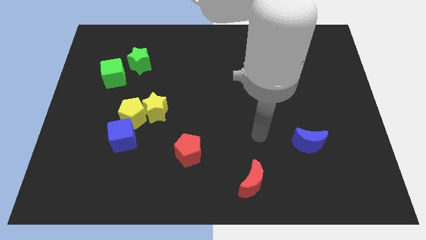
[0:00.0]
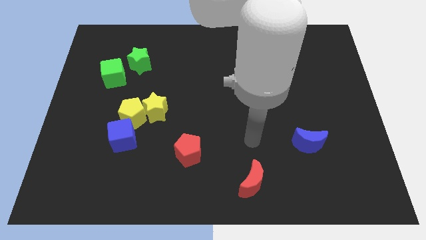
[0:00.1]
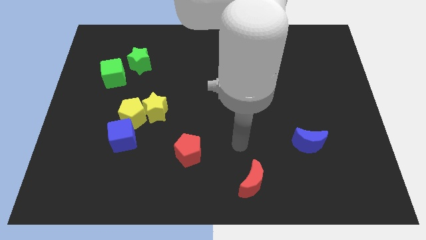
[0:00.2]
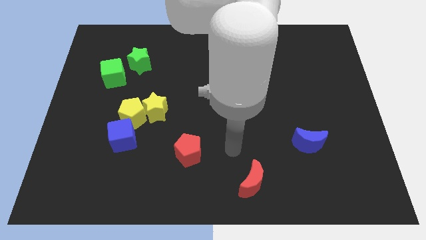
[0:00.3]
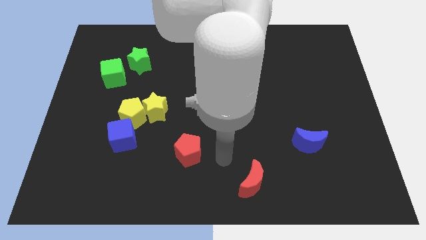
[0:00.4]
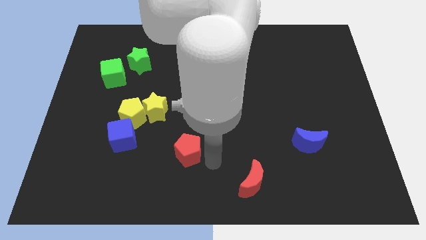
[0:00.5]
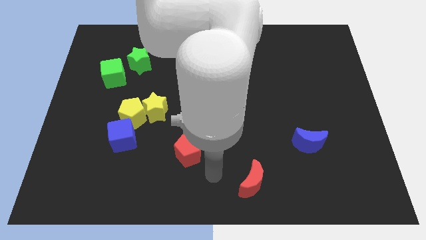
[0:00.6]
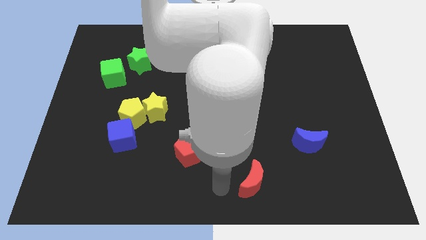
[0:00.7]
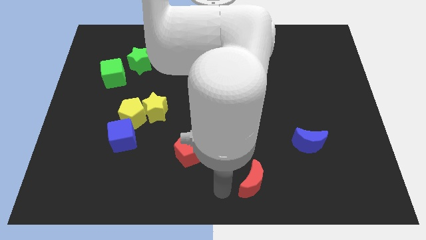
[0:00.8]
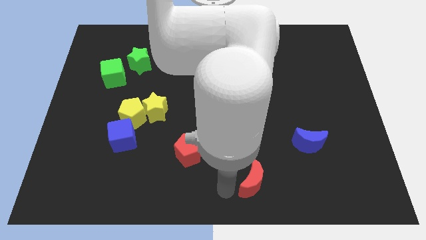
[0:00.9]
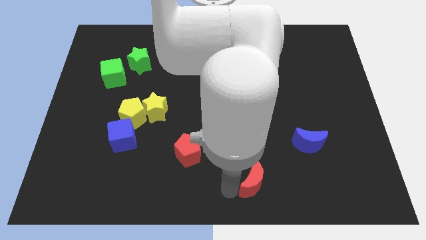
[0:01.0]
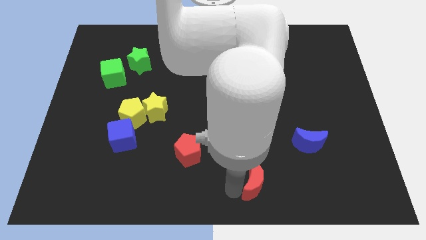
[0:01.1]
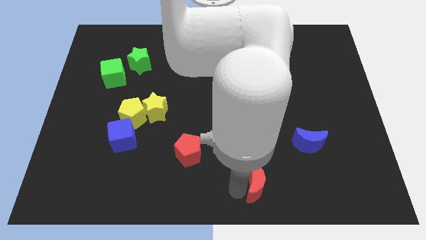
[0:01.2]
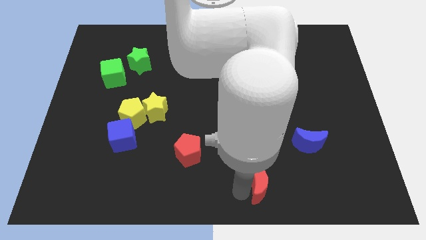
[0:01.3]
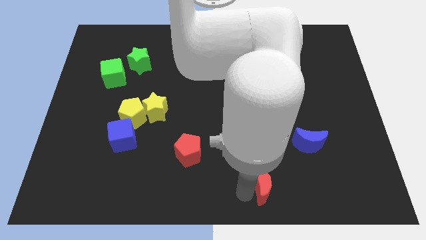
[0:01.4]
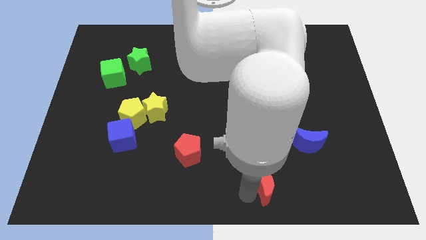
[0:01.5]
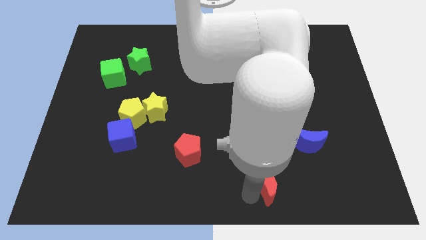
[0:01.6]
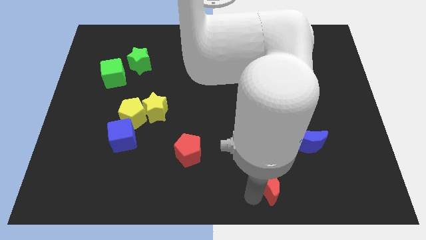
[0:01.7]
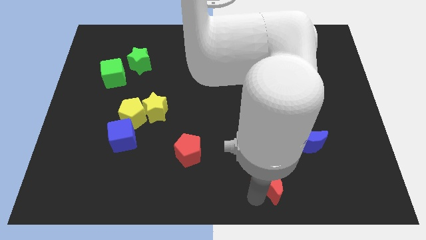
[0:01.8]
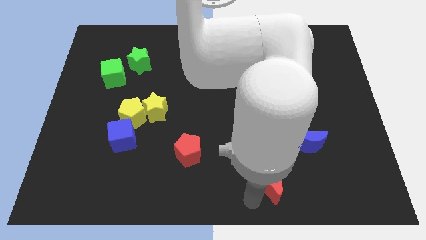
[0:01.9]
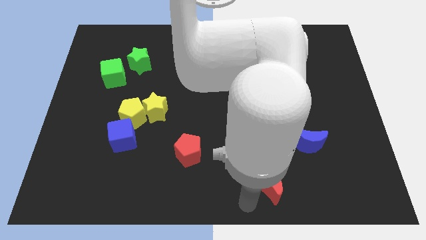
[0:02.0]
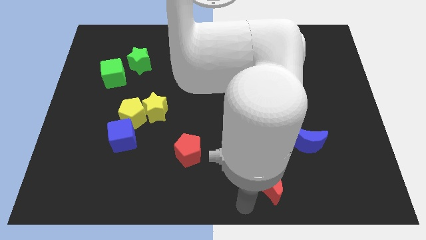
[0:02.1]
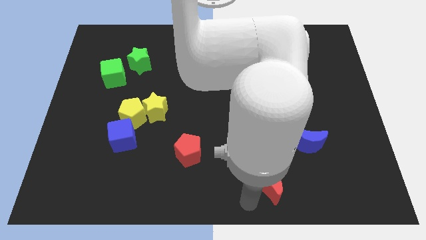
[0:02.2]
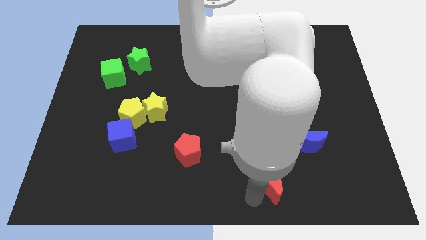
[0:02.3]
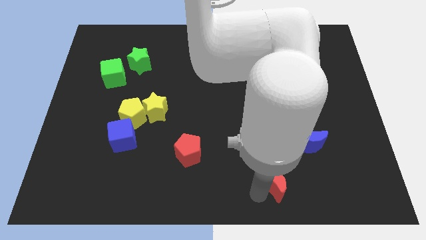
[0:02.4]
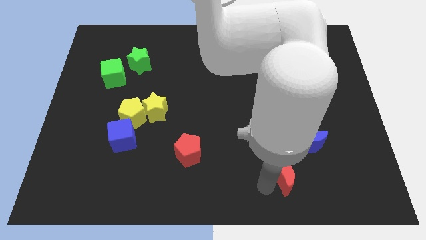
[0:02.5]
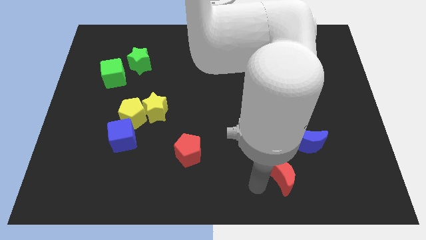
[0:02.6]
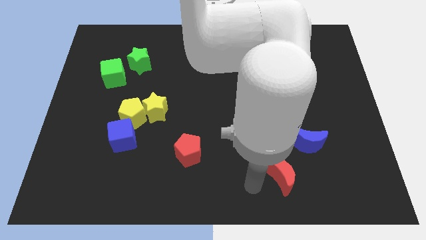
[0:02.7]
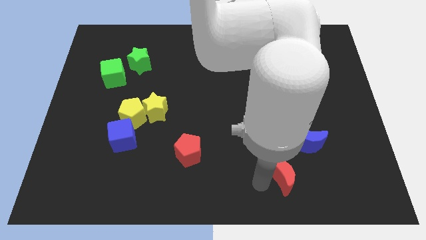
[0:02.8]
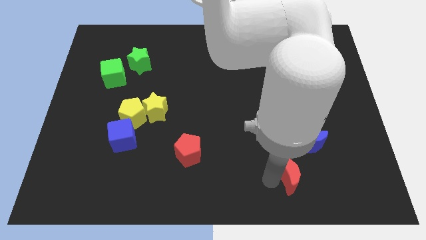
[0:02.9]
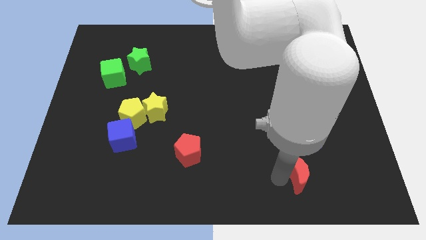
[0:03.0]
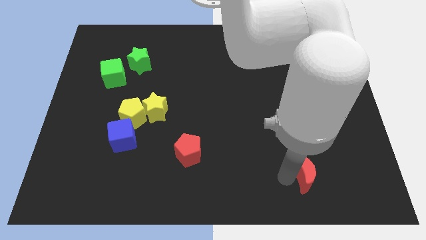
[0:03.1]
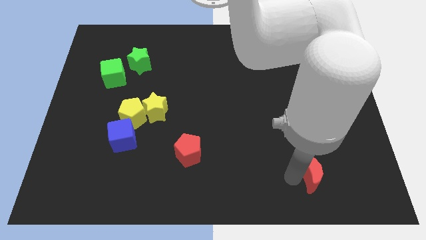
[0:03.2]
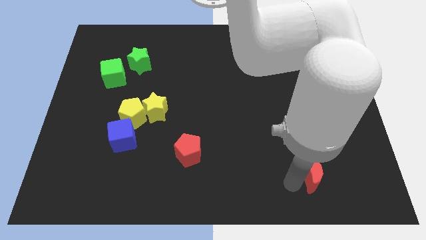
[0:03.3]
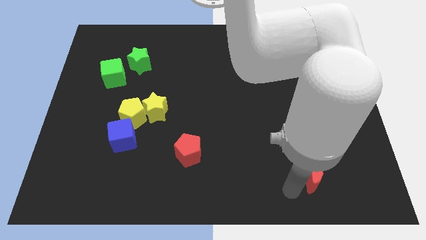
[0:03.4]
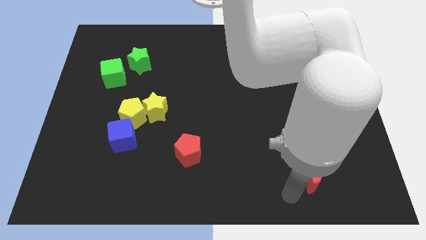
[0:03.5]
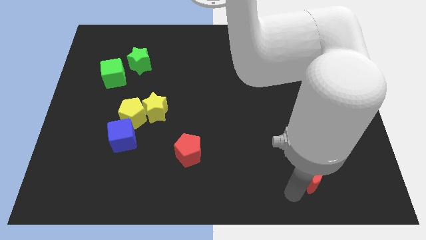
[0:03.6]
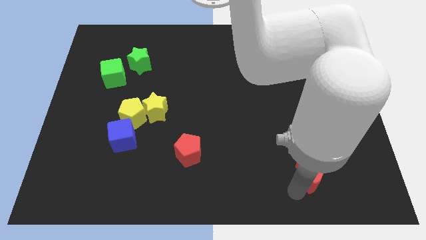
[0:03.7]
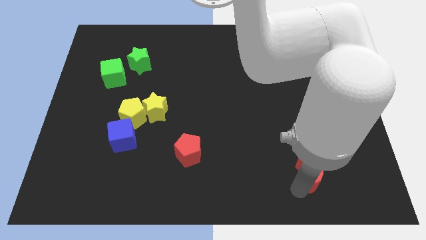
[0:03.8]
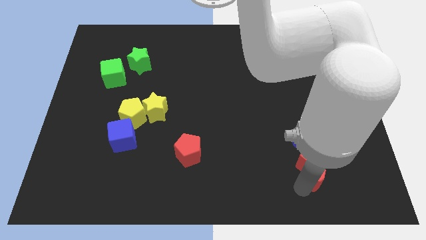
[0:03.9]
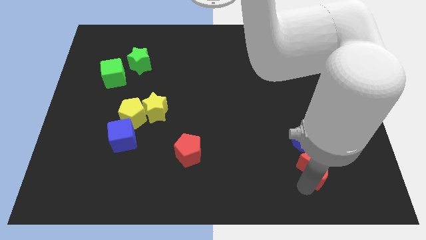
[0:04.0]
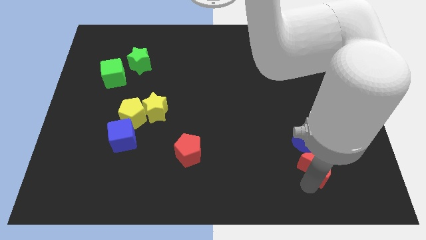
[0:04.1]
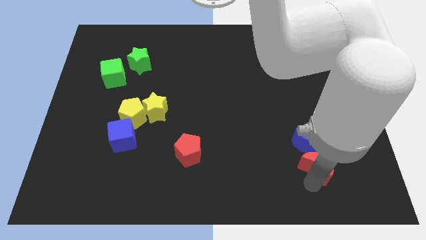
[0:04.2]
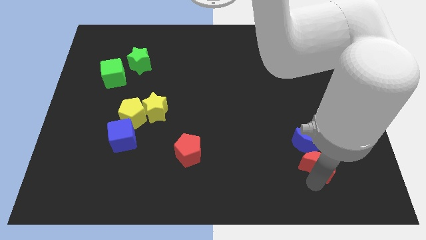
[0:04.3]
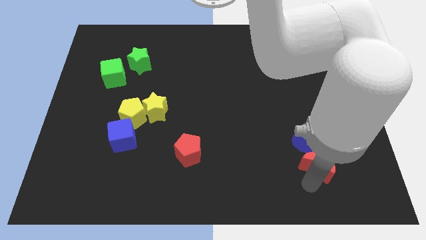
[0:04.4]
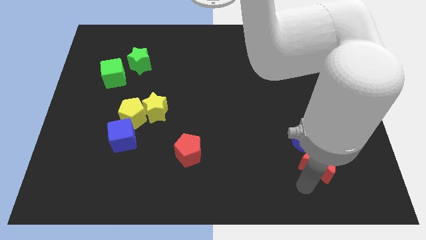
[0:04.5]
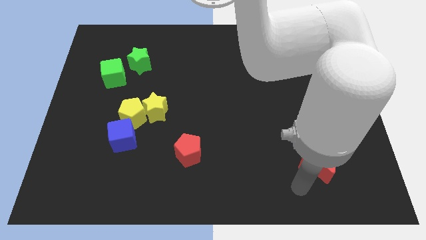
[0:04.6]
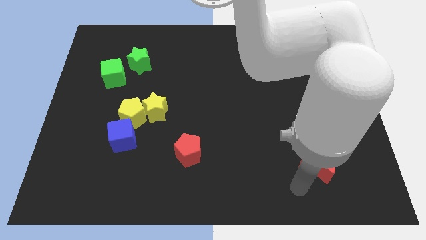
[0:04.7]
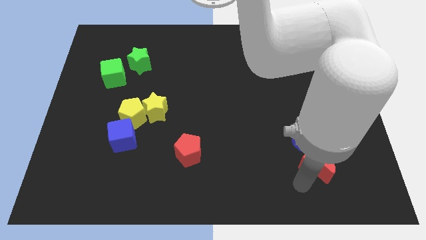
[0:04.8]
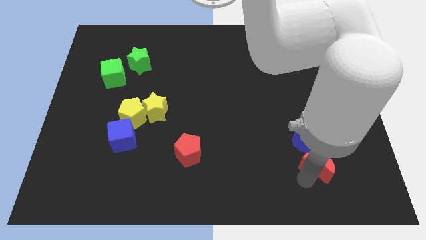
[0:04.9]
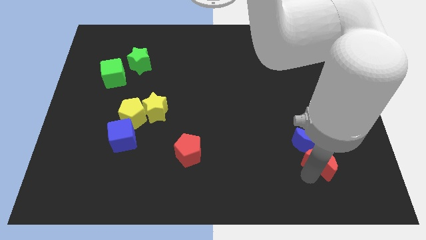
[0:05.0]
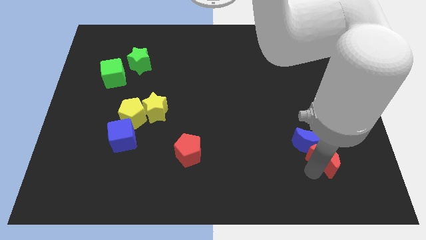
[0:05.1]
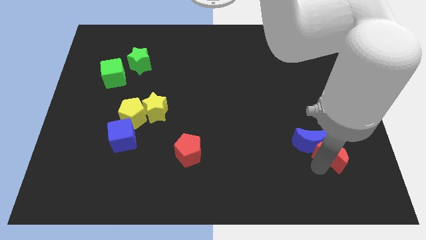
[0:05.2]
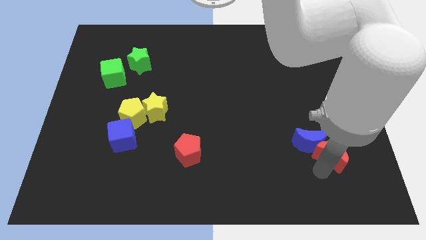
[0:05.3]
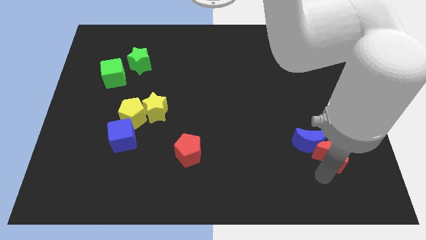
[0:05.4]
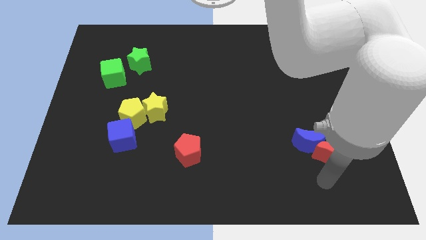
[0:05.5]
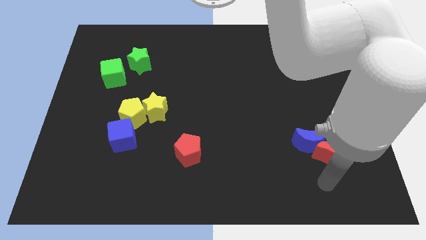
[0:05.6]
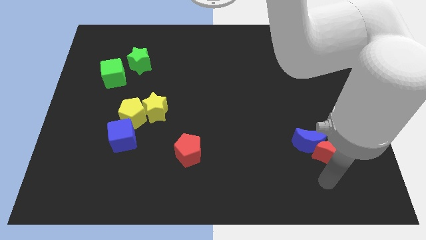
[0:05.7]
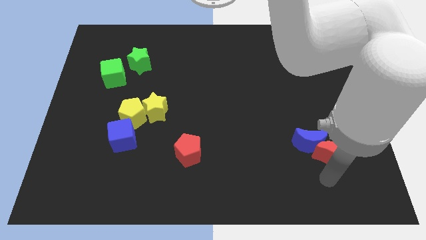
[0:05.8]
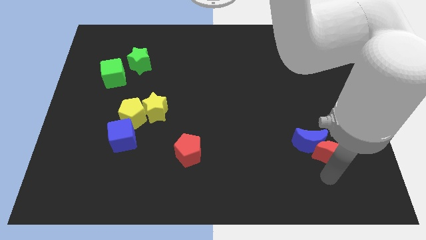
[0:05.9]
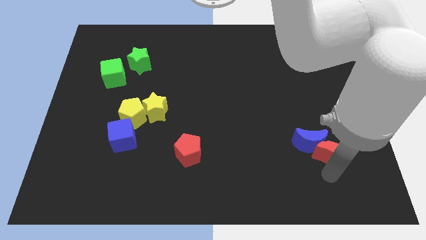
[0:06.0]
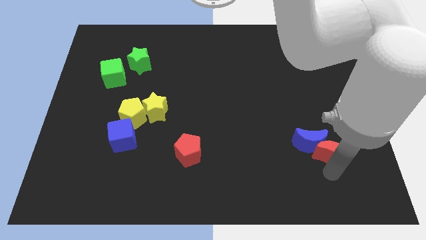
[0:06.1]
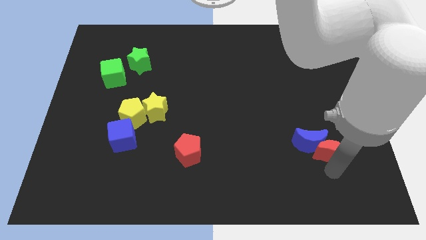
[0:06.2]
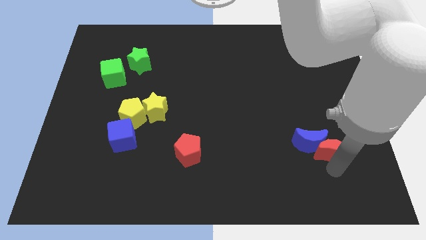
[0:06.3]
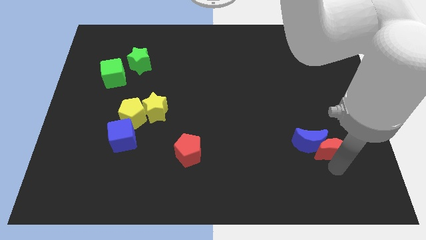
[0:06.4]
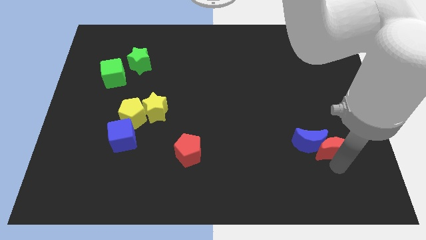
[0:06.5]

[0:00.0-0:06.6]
slide the red moon to the top right of the blue moon

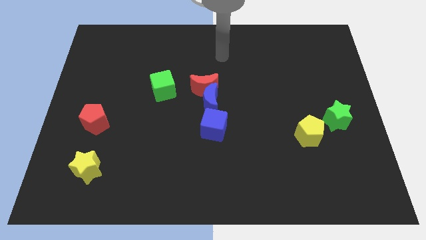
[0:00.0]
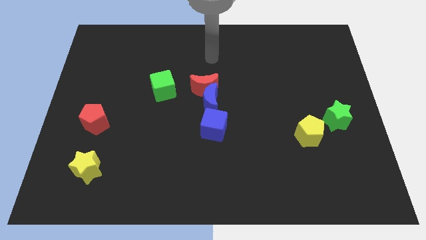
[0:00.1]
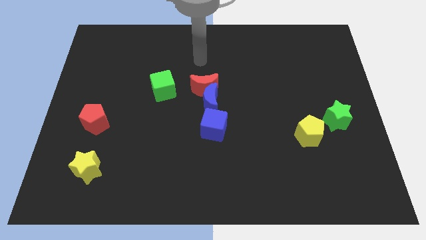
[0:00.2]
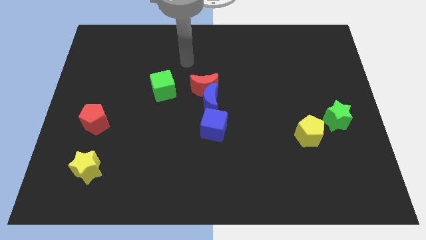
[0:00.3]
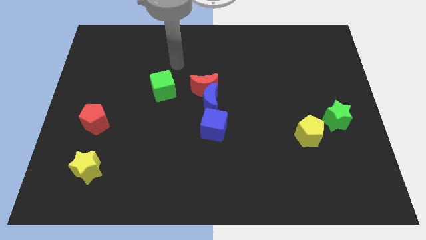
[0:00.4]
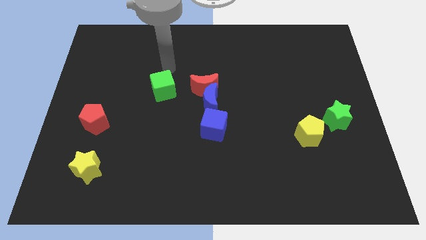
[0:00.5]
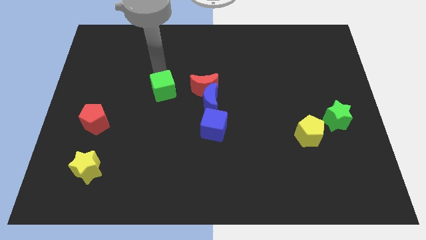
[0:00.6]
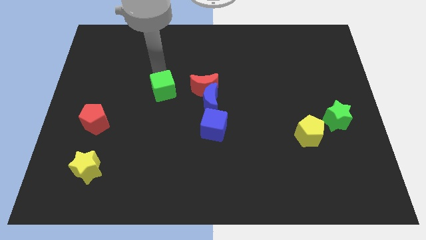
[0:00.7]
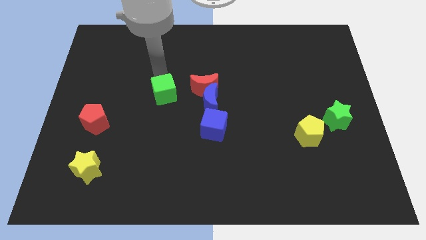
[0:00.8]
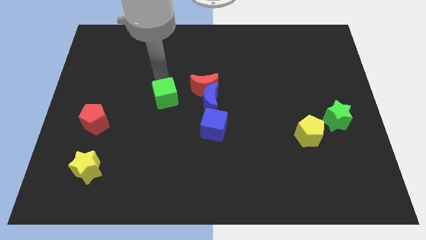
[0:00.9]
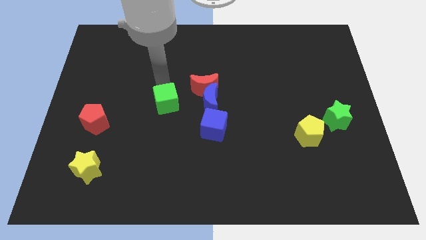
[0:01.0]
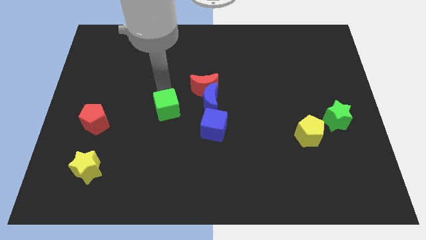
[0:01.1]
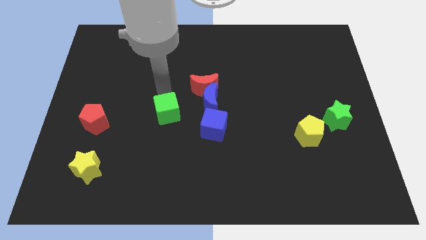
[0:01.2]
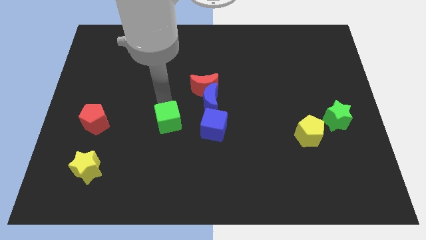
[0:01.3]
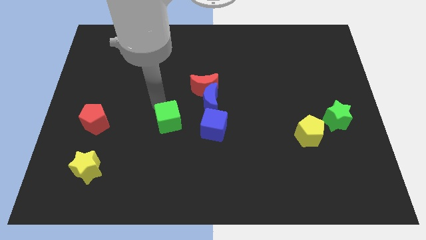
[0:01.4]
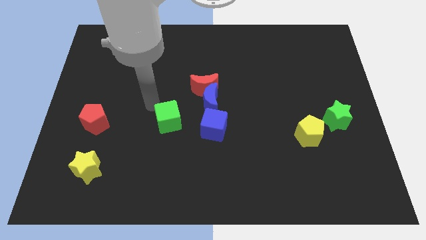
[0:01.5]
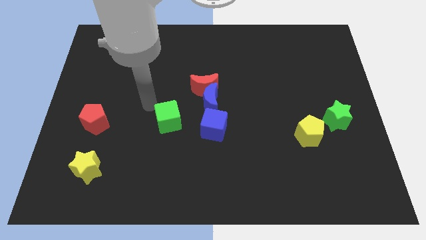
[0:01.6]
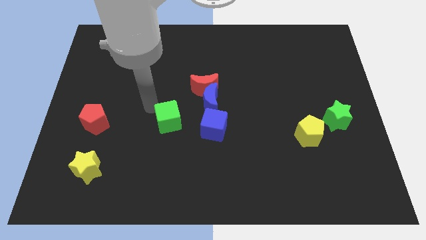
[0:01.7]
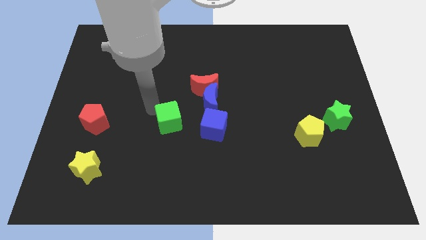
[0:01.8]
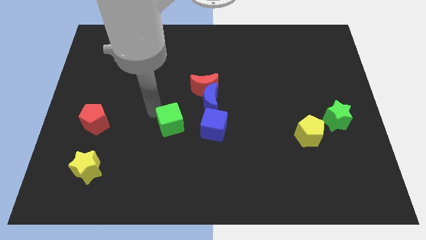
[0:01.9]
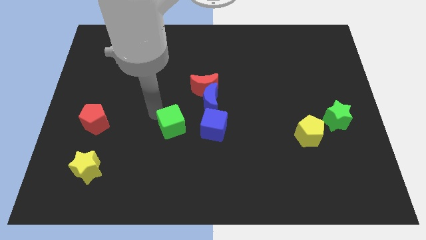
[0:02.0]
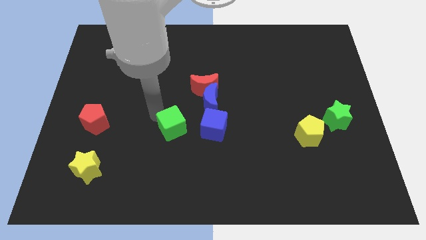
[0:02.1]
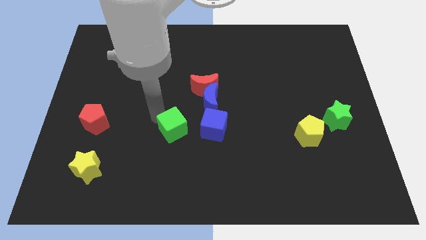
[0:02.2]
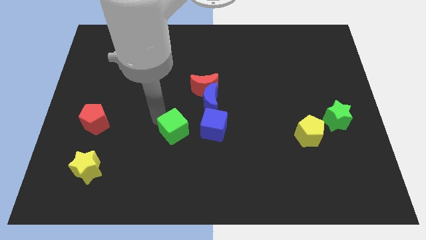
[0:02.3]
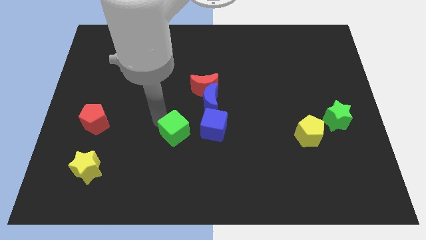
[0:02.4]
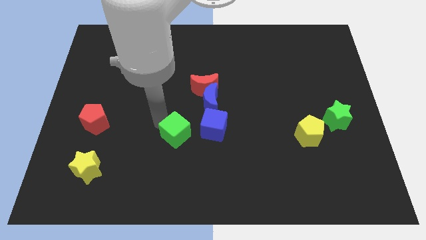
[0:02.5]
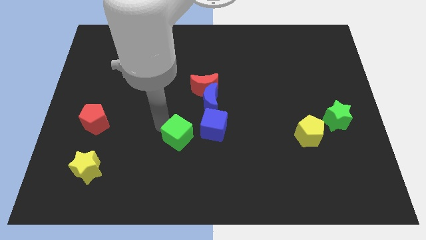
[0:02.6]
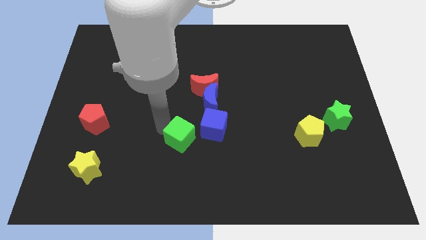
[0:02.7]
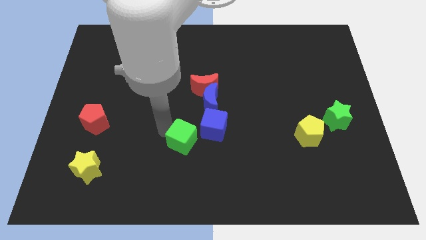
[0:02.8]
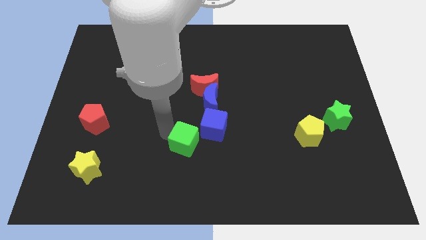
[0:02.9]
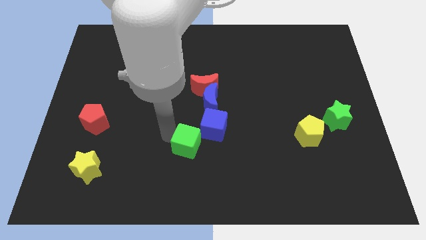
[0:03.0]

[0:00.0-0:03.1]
push the green cube below the blue moon
